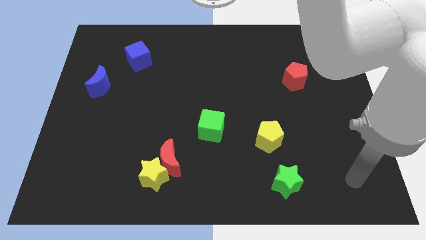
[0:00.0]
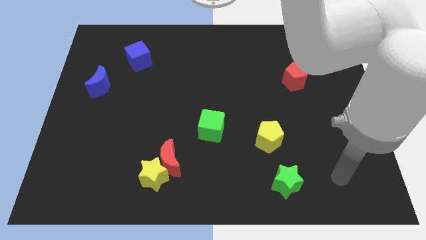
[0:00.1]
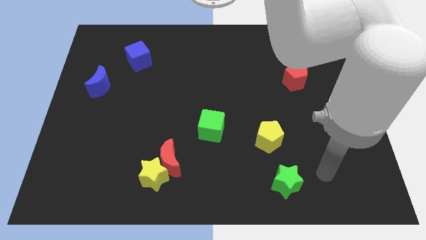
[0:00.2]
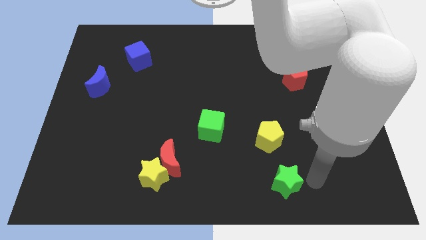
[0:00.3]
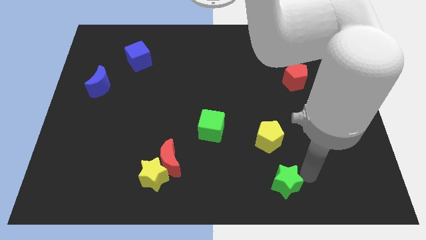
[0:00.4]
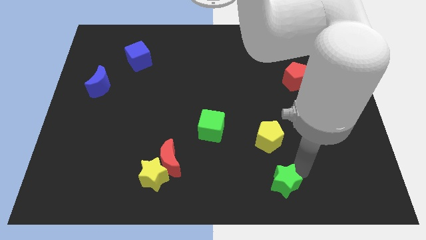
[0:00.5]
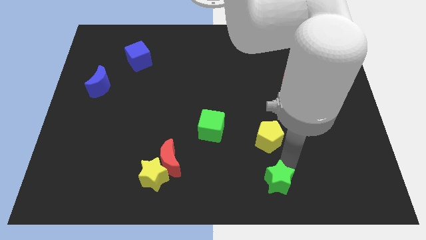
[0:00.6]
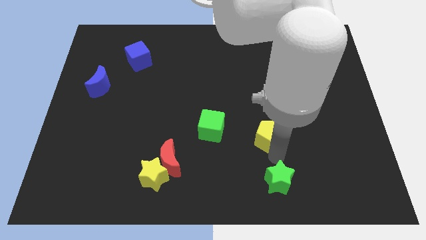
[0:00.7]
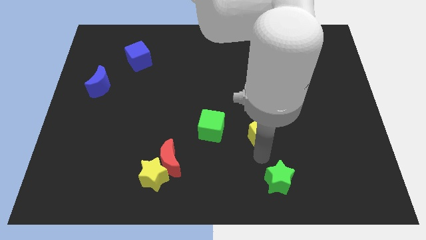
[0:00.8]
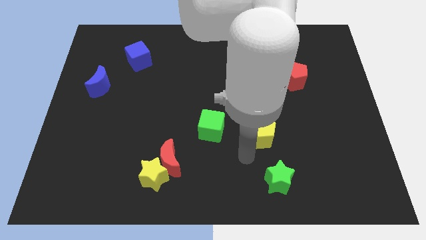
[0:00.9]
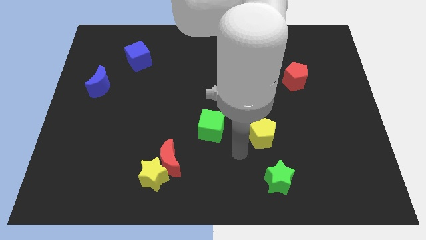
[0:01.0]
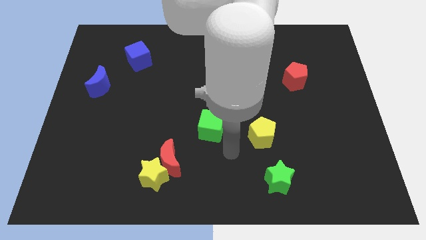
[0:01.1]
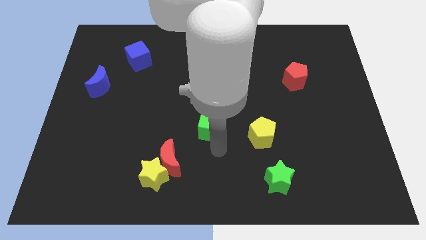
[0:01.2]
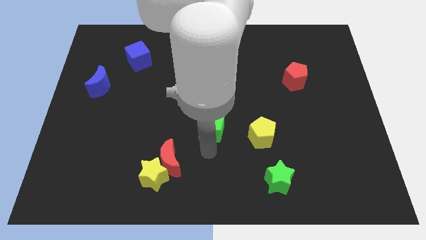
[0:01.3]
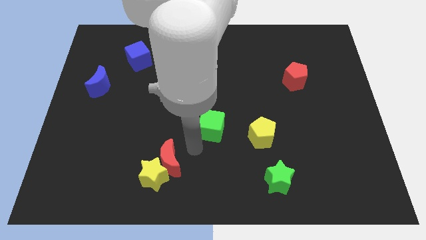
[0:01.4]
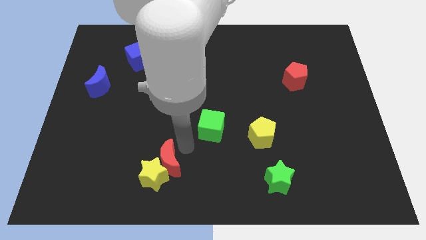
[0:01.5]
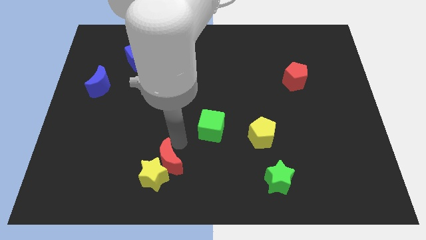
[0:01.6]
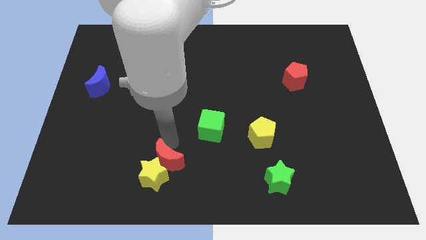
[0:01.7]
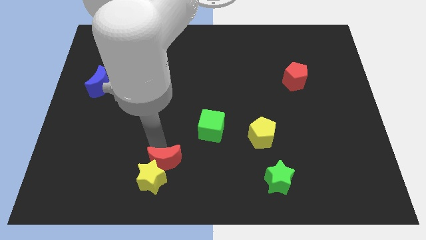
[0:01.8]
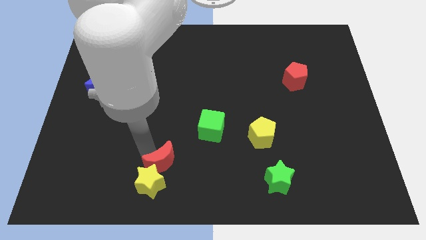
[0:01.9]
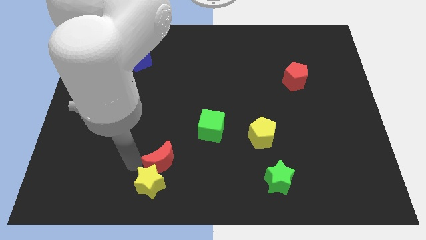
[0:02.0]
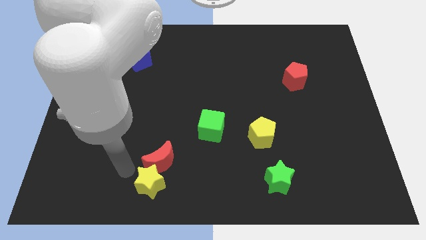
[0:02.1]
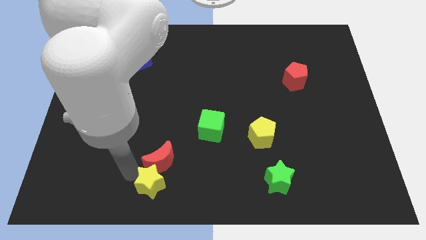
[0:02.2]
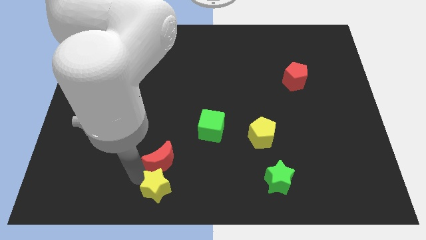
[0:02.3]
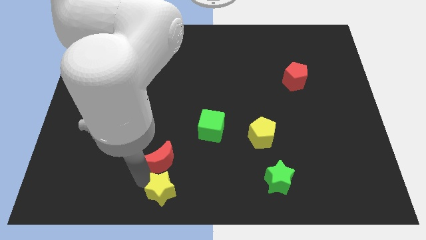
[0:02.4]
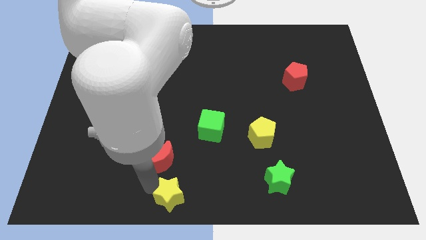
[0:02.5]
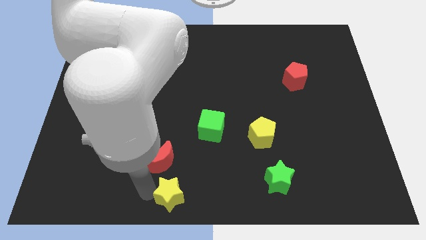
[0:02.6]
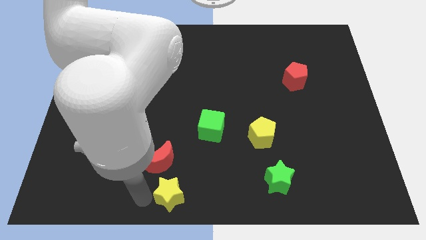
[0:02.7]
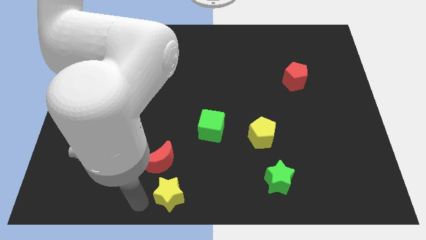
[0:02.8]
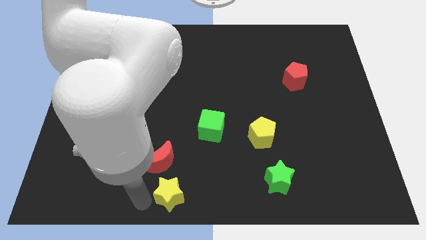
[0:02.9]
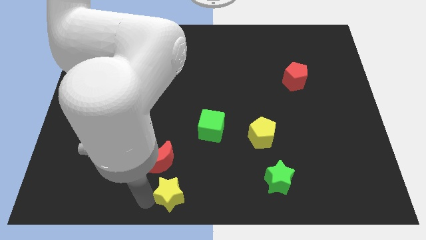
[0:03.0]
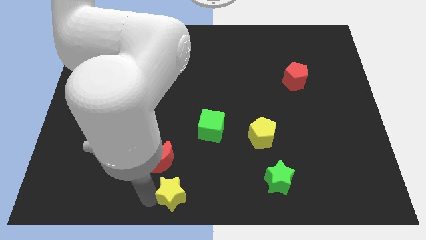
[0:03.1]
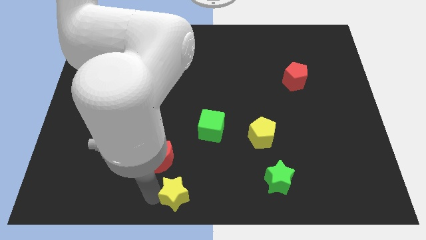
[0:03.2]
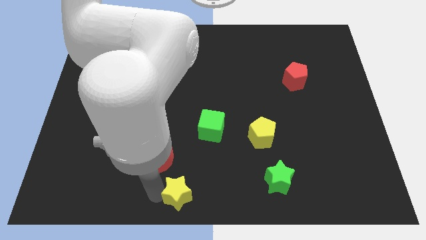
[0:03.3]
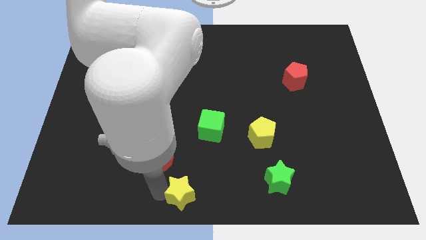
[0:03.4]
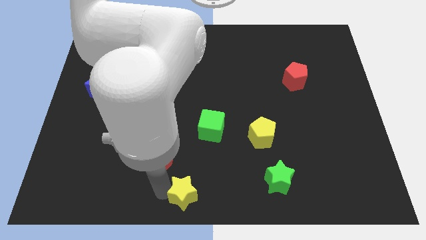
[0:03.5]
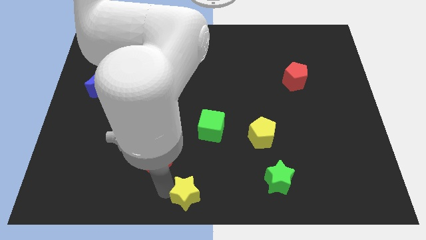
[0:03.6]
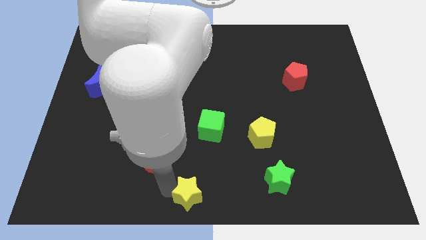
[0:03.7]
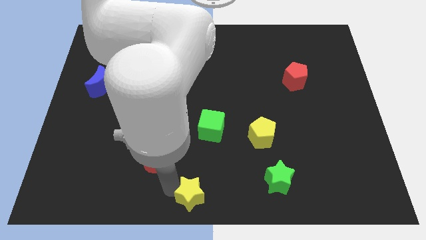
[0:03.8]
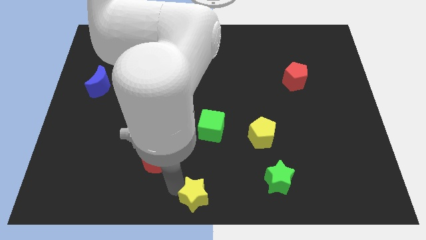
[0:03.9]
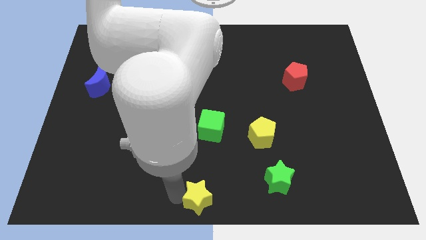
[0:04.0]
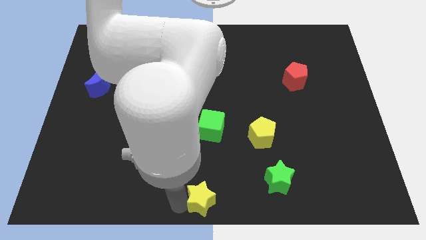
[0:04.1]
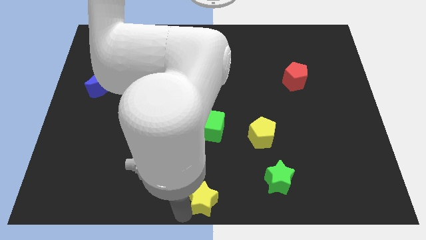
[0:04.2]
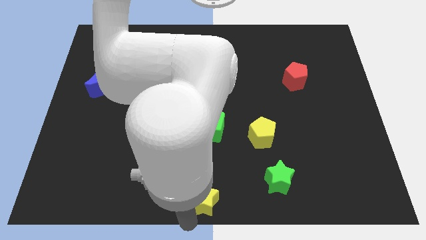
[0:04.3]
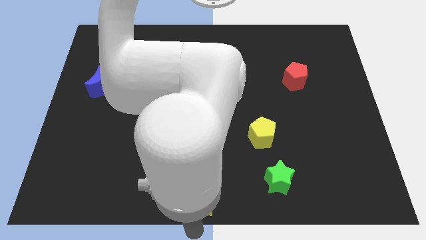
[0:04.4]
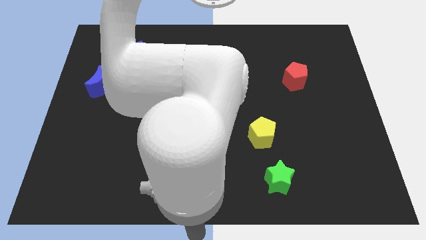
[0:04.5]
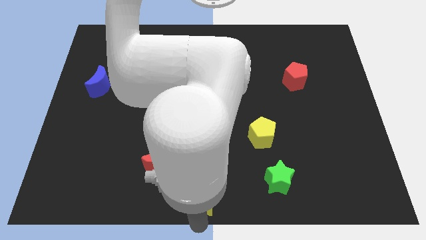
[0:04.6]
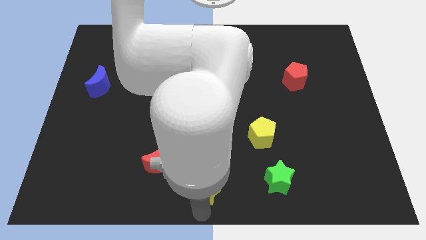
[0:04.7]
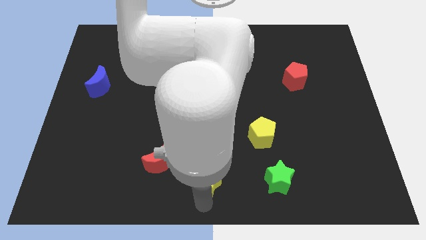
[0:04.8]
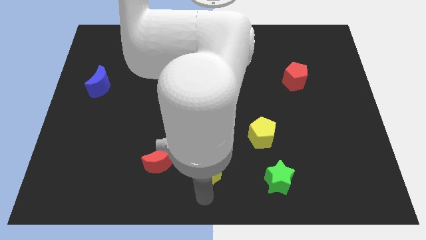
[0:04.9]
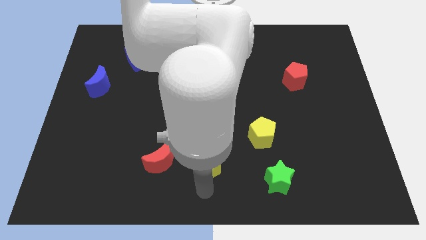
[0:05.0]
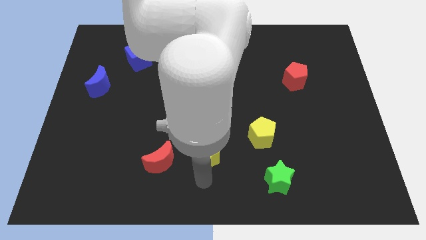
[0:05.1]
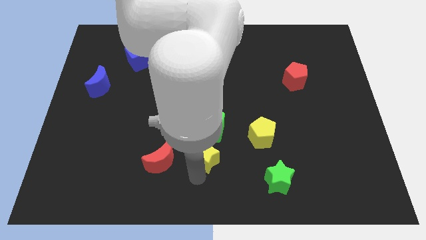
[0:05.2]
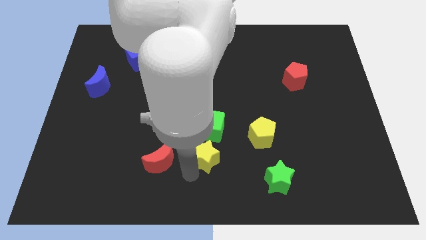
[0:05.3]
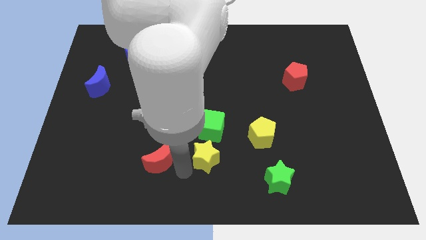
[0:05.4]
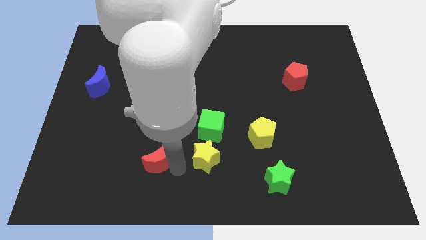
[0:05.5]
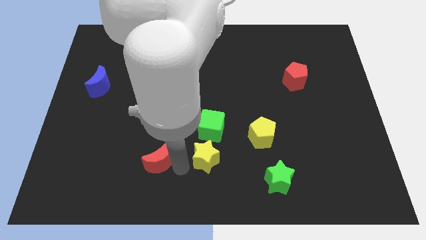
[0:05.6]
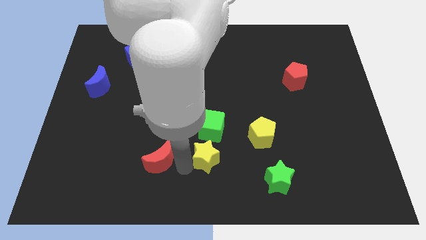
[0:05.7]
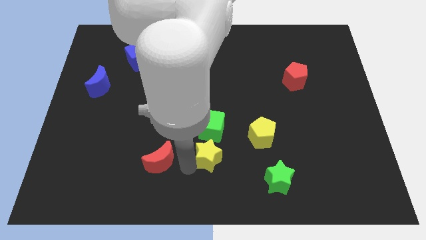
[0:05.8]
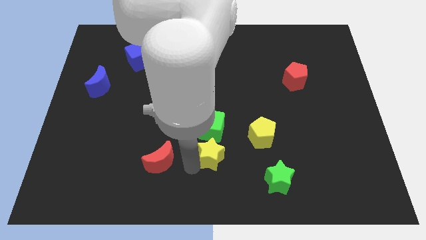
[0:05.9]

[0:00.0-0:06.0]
move the yellow star to the bottom right side of the green cube

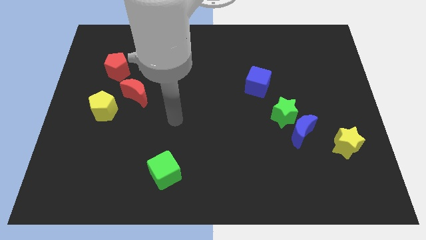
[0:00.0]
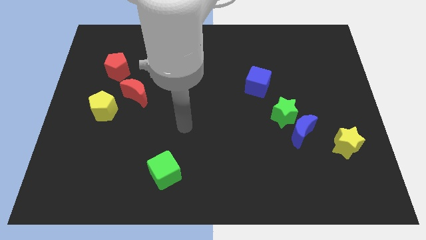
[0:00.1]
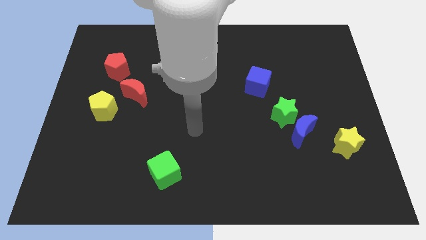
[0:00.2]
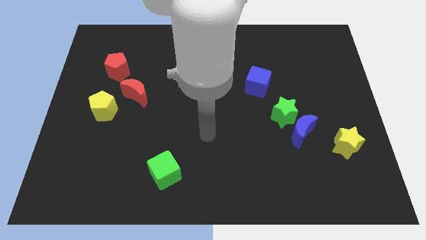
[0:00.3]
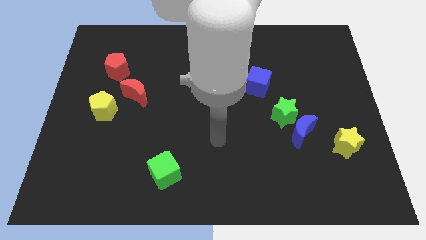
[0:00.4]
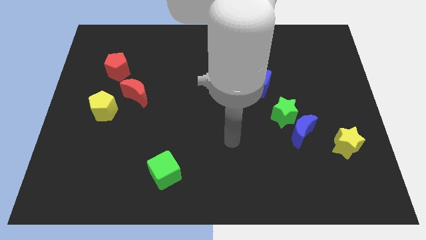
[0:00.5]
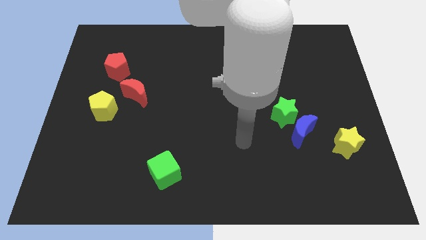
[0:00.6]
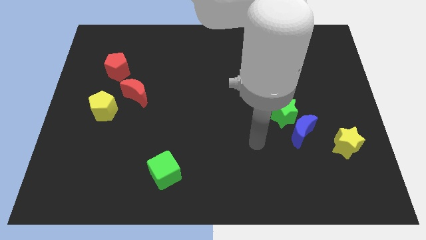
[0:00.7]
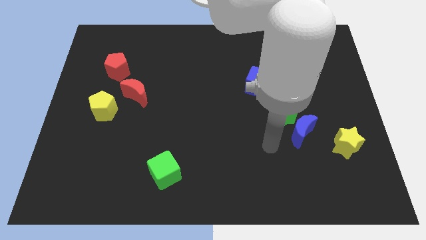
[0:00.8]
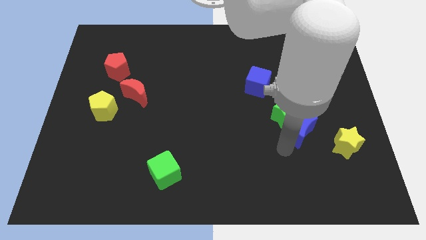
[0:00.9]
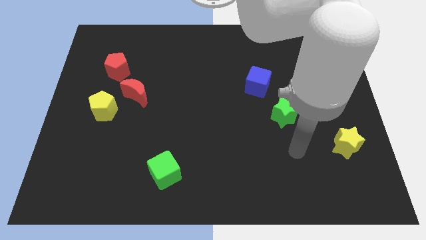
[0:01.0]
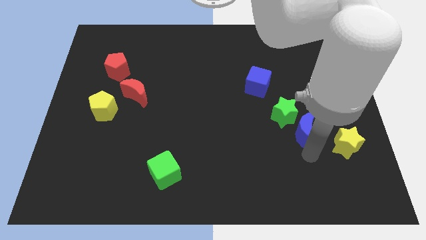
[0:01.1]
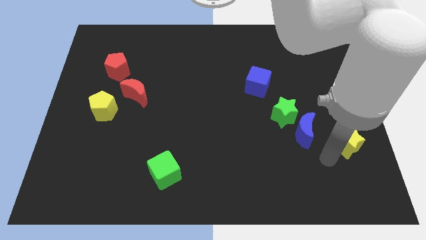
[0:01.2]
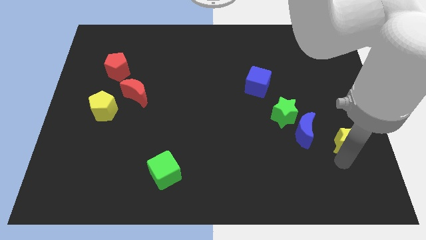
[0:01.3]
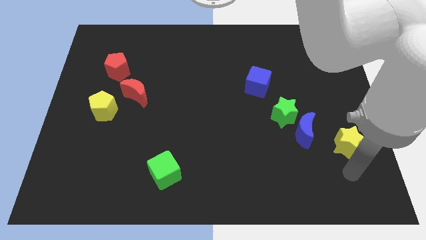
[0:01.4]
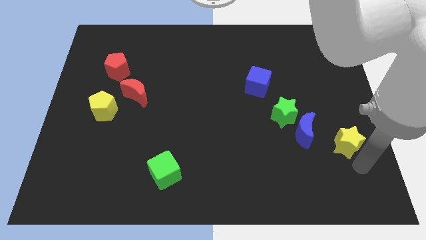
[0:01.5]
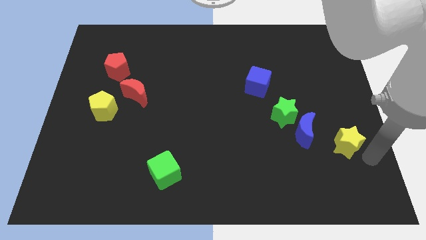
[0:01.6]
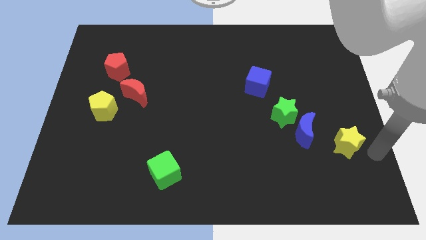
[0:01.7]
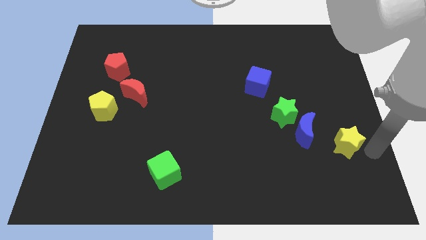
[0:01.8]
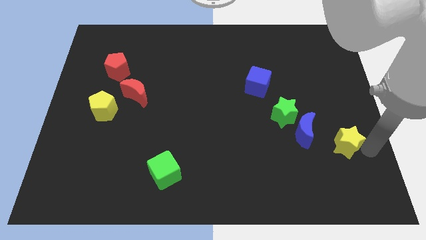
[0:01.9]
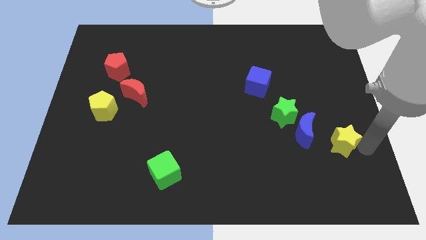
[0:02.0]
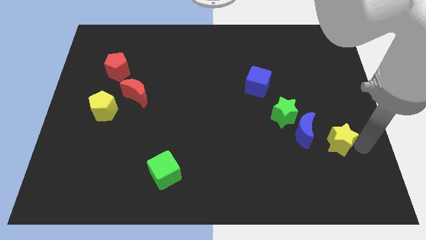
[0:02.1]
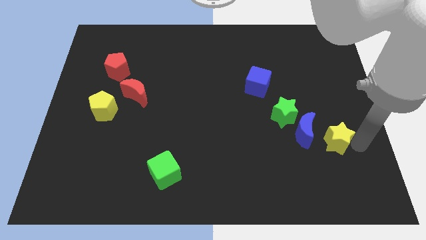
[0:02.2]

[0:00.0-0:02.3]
slide the yellow star to the bottom right of the green star
